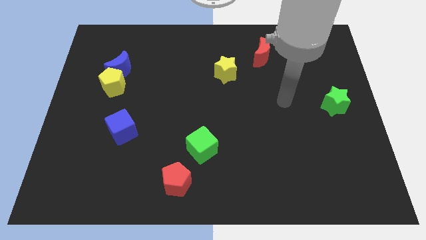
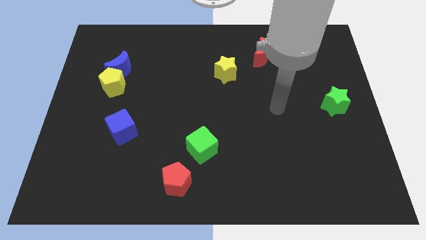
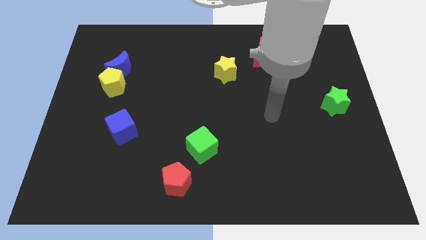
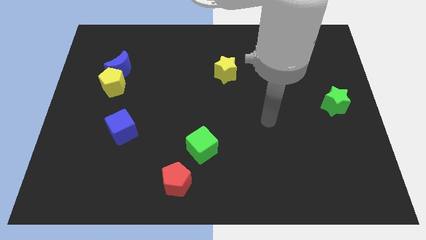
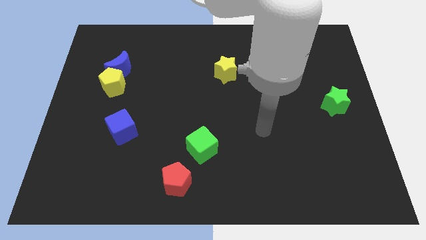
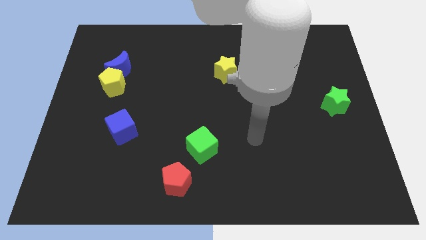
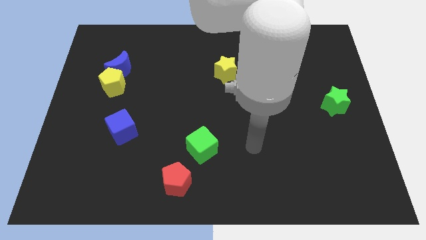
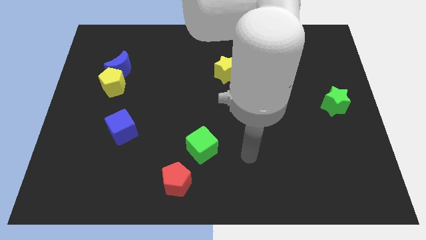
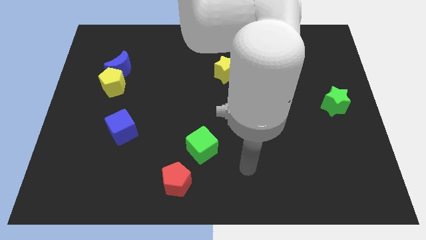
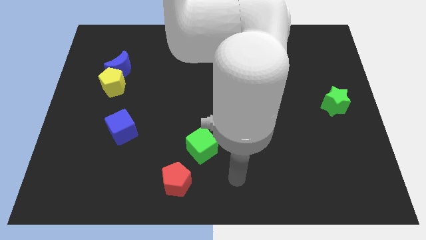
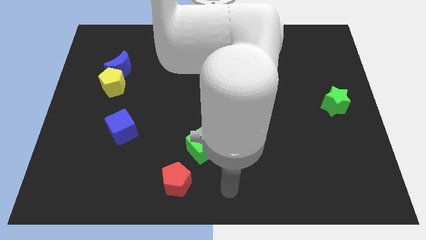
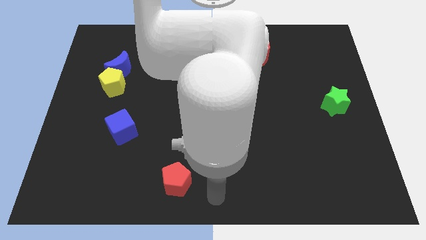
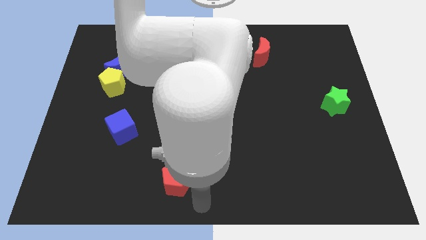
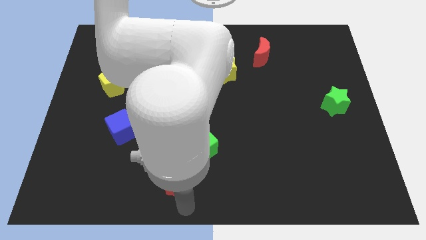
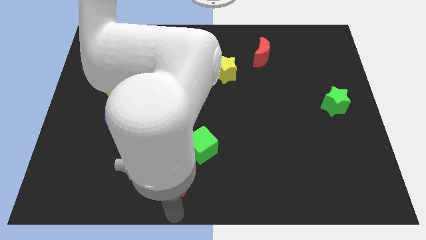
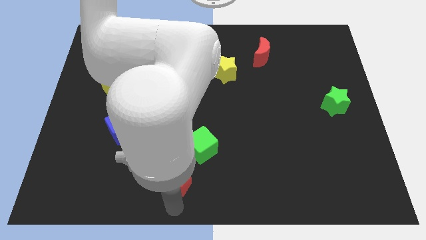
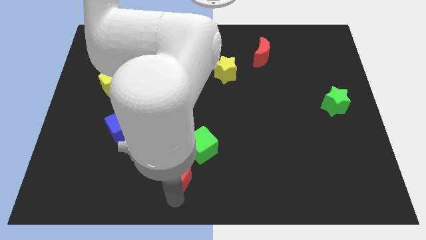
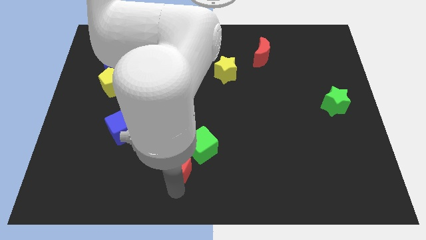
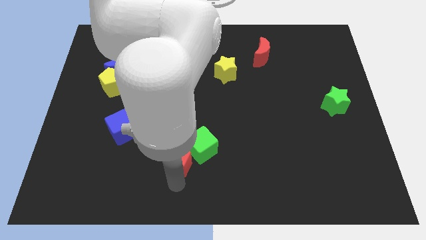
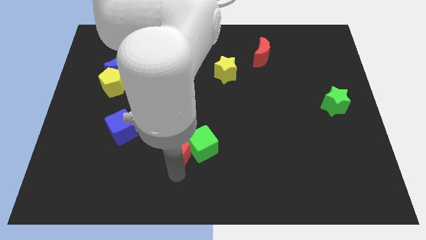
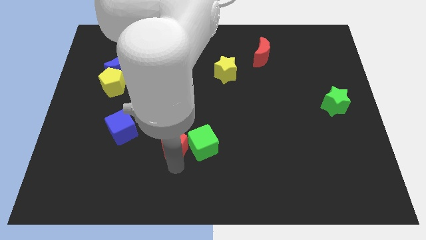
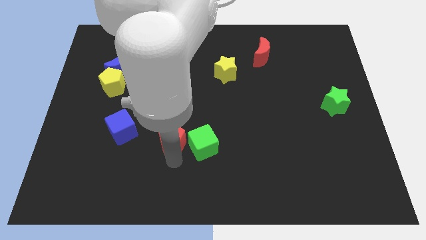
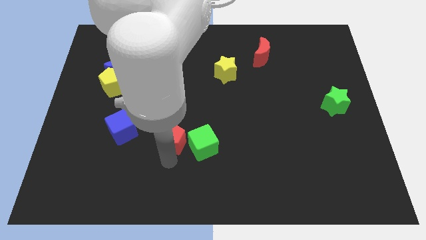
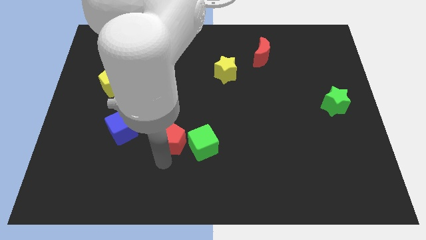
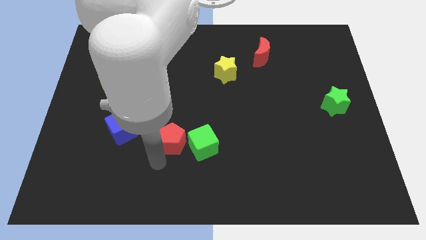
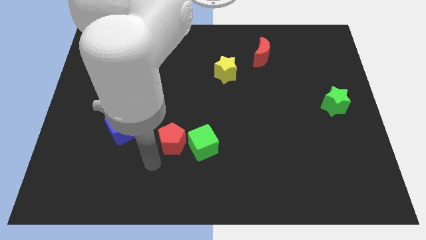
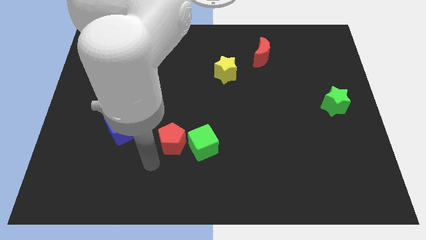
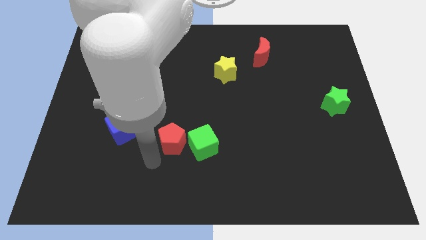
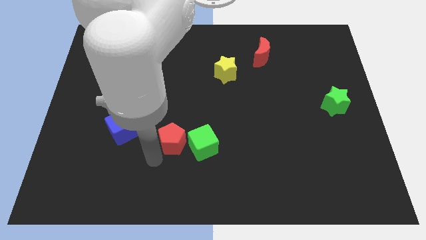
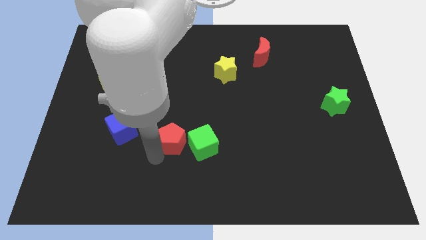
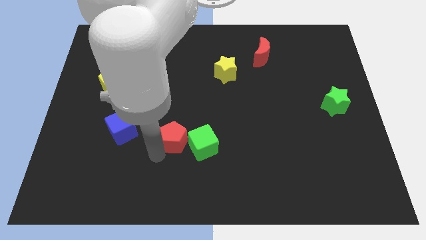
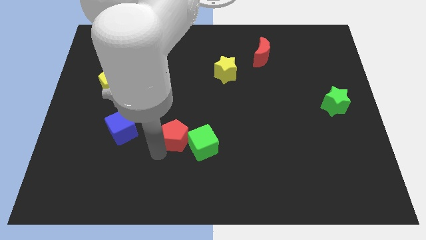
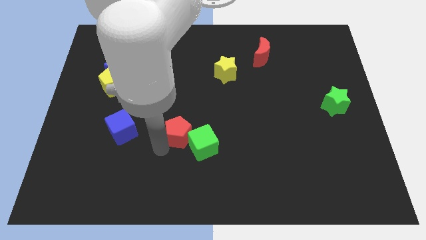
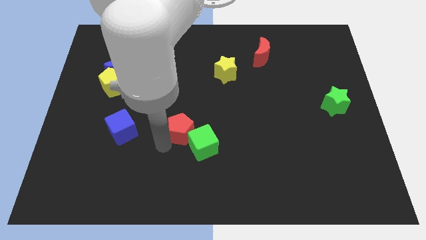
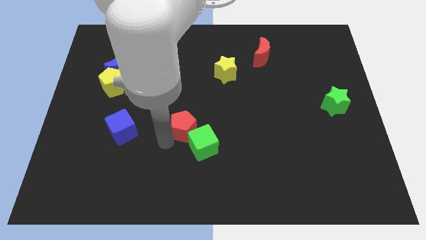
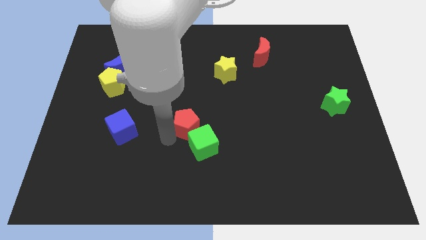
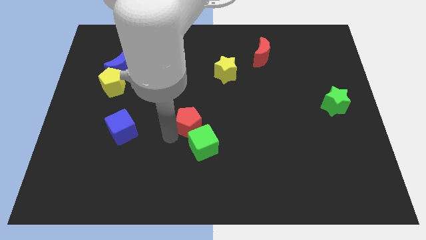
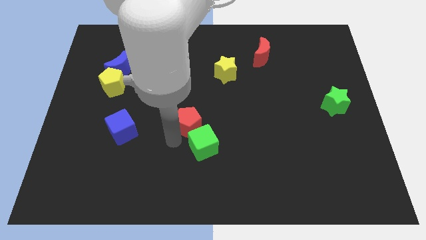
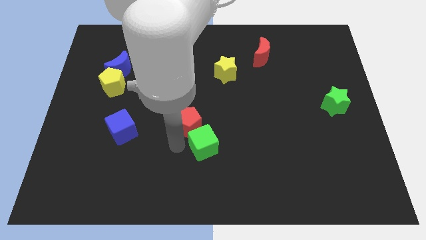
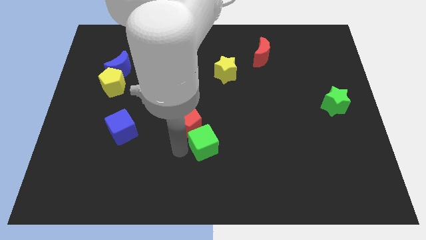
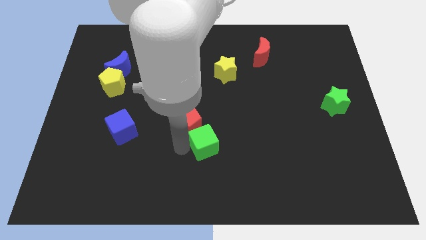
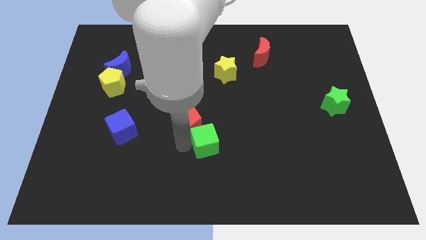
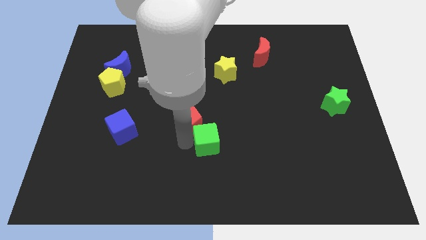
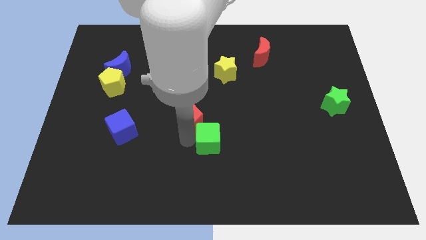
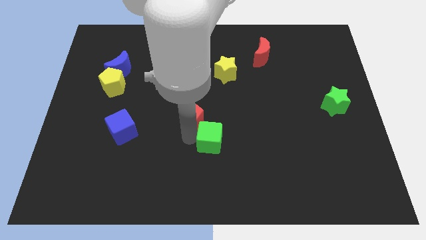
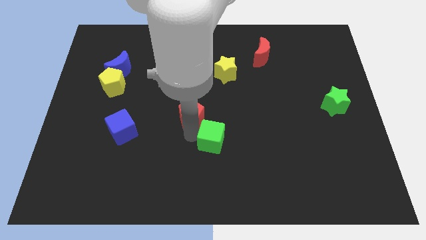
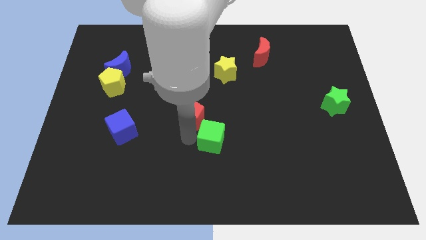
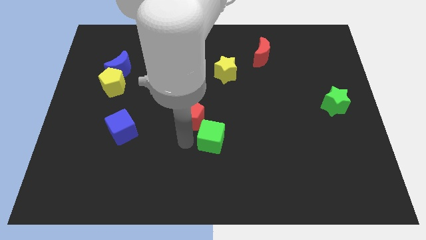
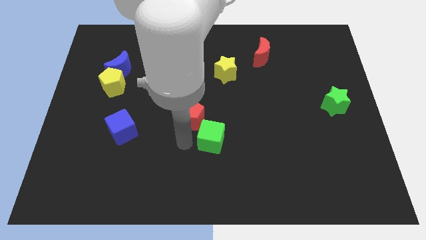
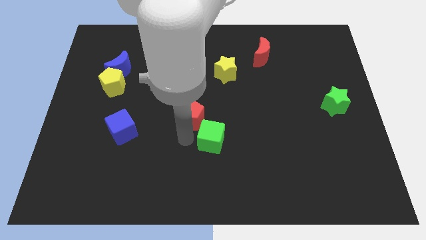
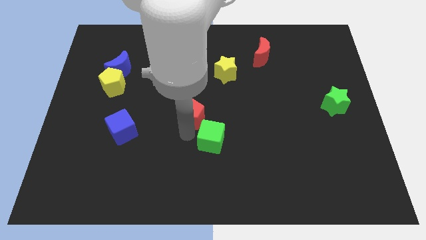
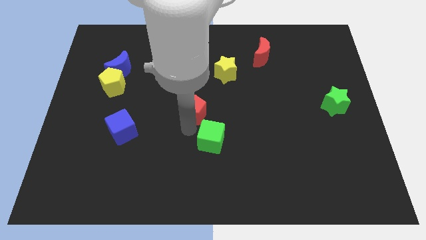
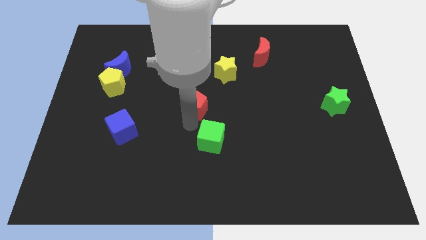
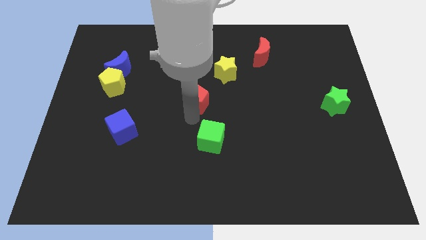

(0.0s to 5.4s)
move the red pentagon diagonally down and to the left of the yellow star

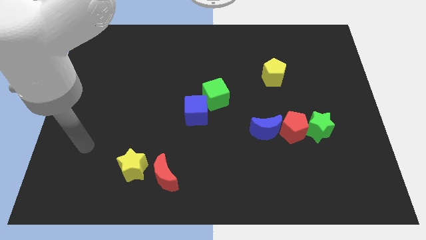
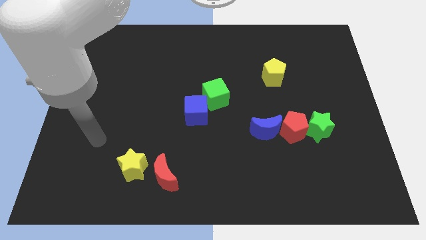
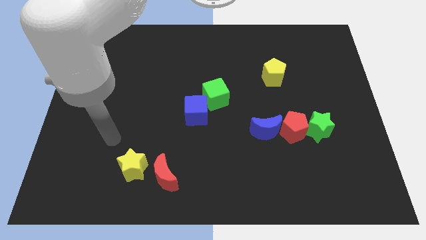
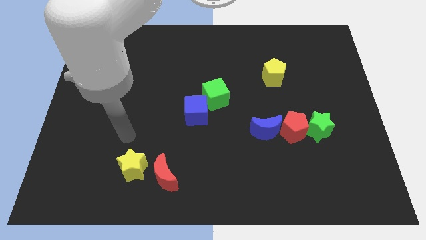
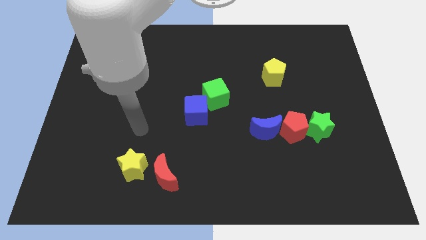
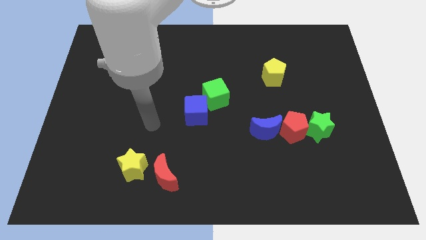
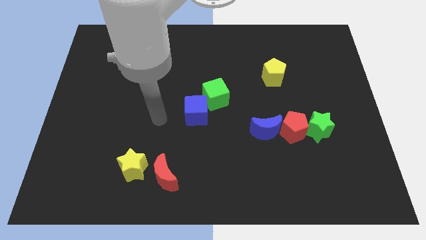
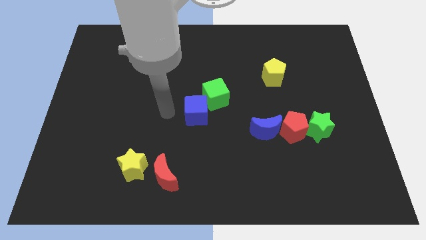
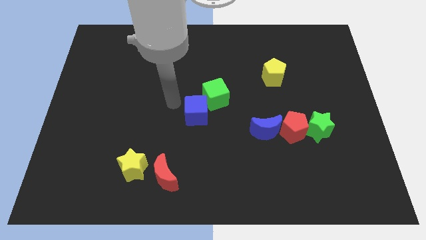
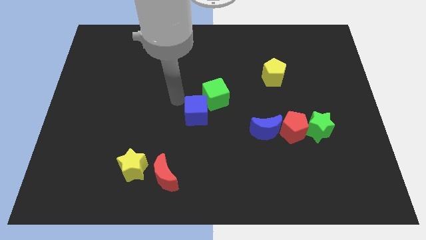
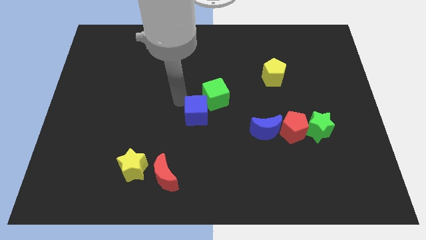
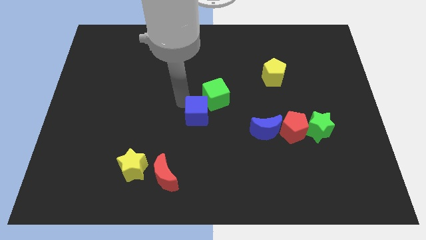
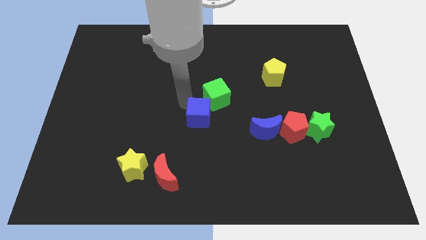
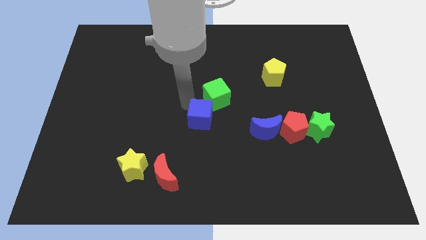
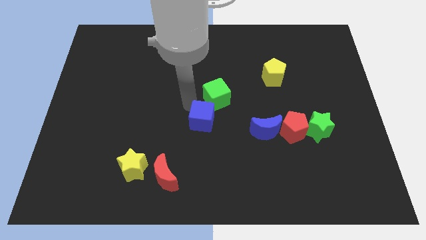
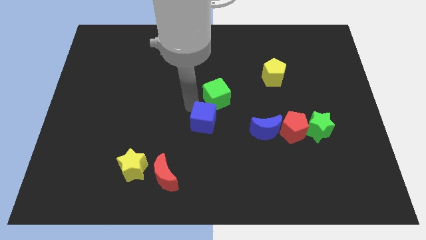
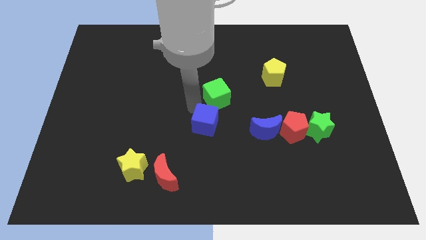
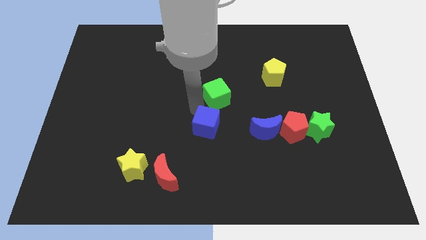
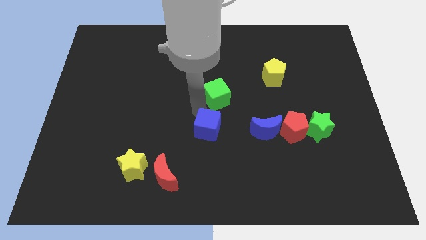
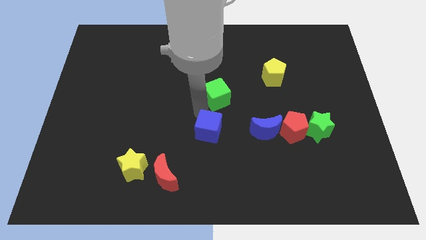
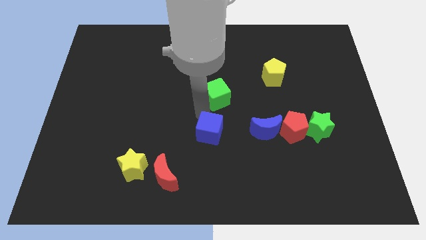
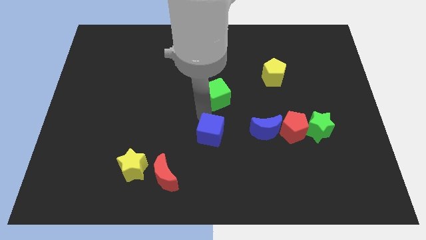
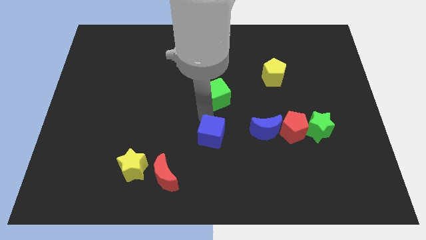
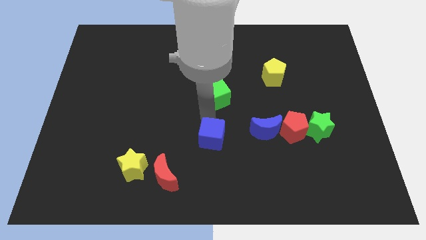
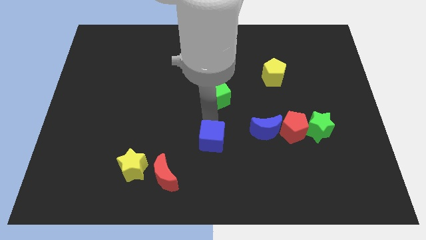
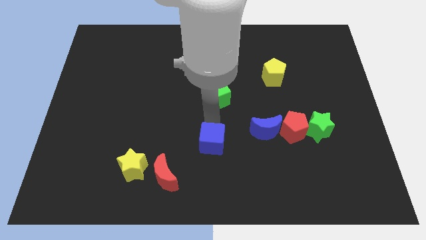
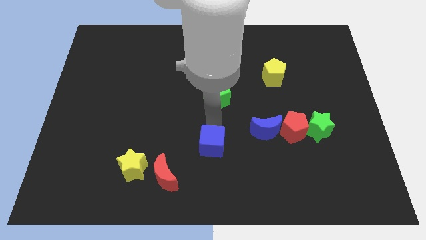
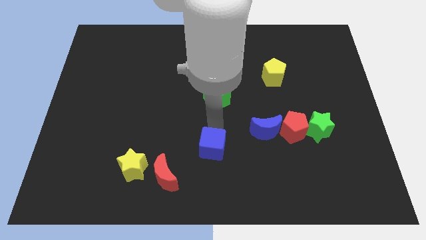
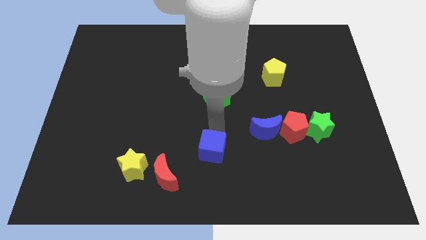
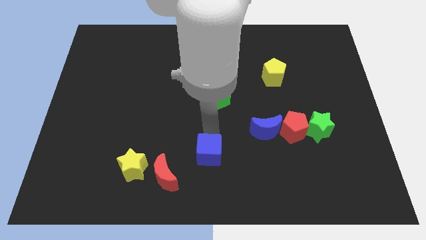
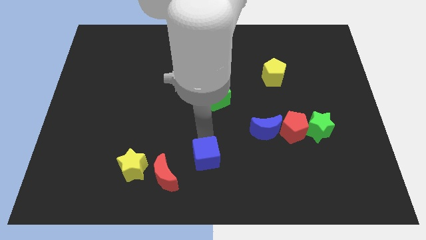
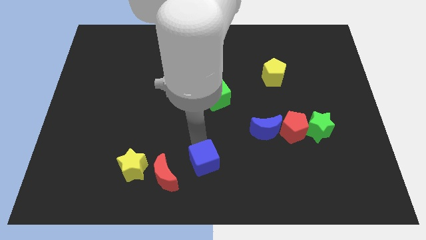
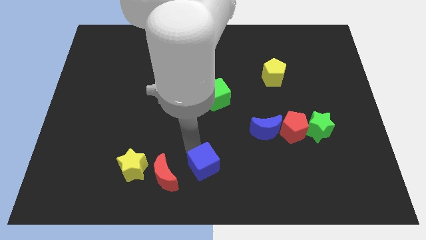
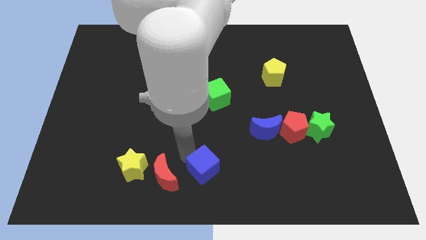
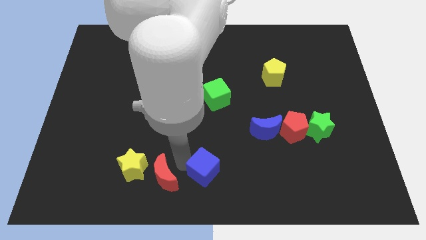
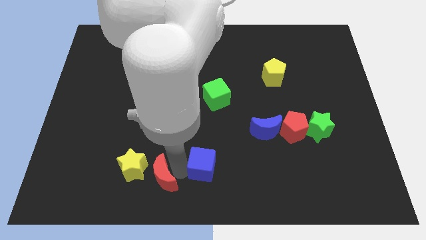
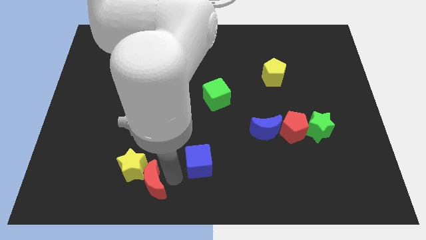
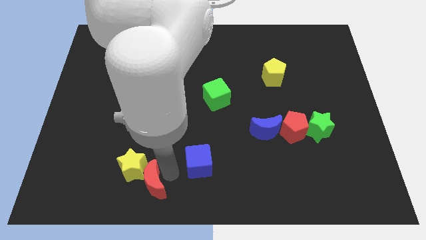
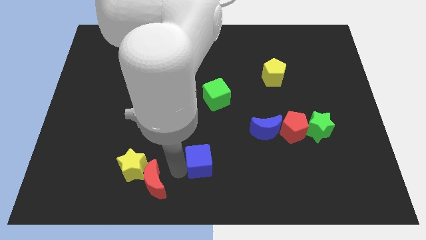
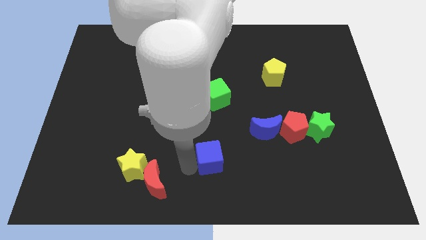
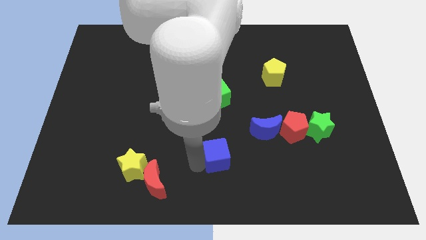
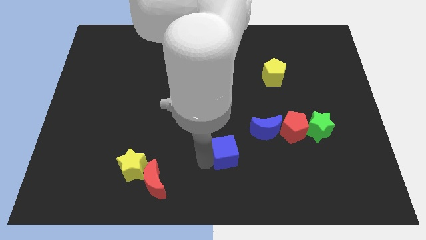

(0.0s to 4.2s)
push the blue cube to the bottom left side of the blue moon
